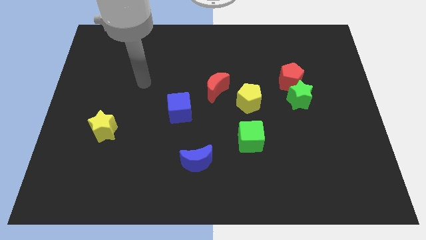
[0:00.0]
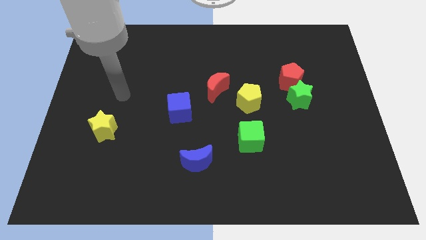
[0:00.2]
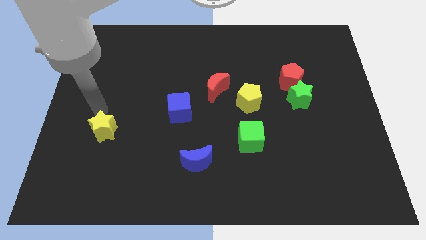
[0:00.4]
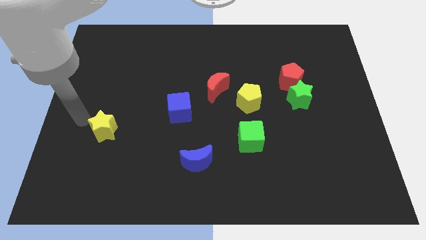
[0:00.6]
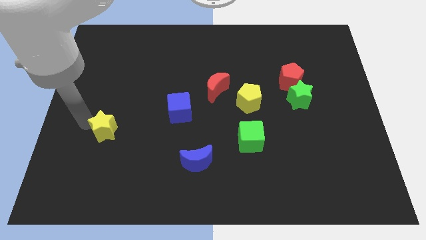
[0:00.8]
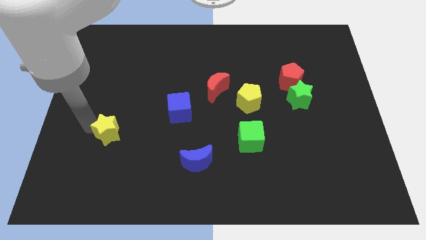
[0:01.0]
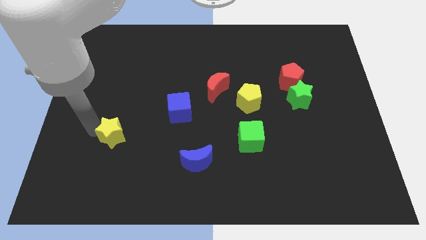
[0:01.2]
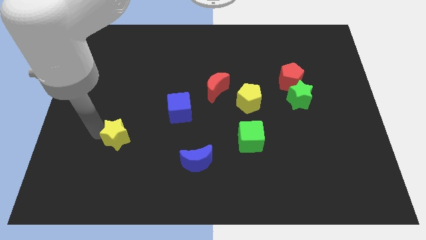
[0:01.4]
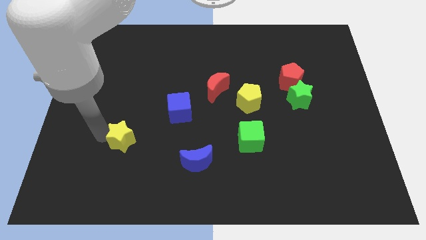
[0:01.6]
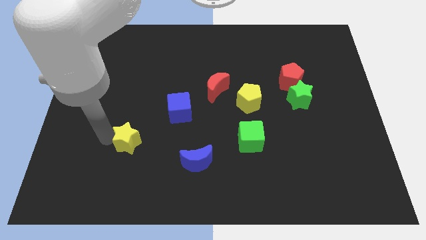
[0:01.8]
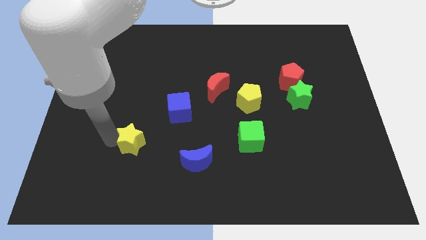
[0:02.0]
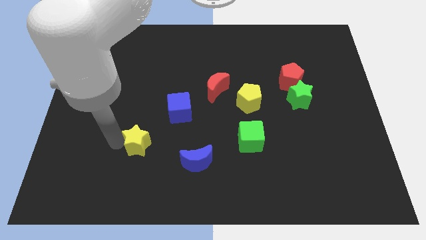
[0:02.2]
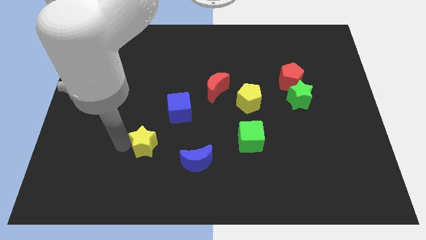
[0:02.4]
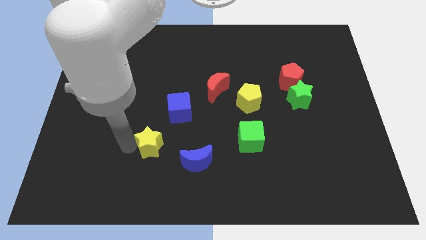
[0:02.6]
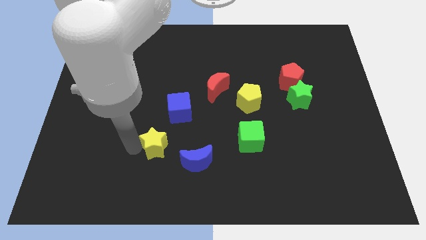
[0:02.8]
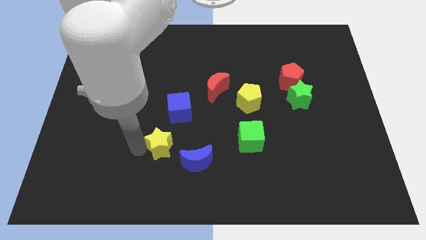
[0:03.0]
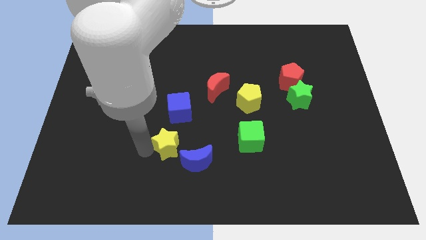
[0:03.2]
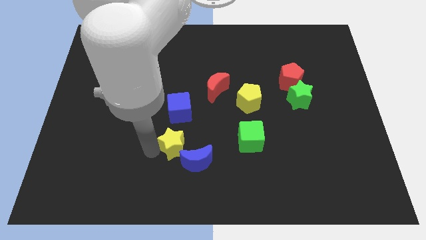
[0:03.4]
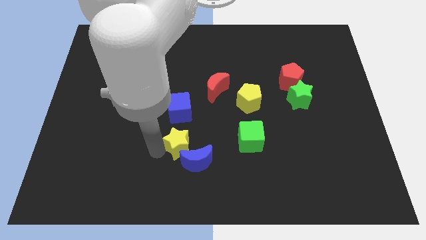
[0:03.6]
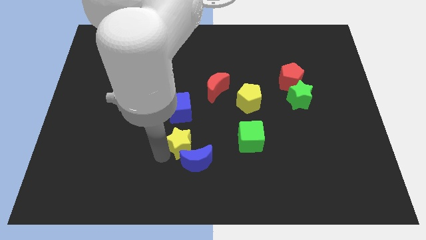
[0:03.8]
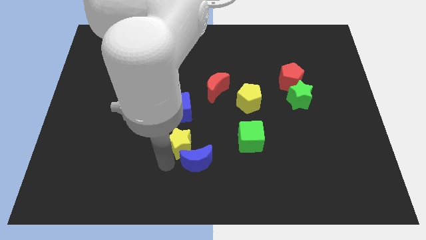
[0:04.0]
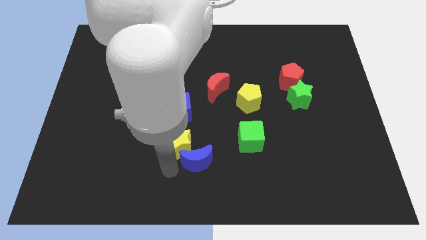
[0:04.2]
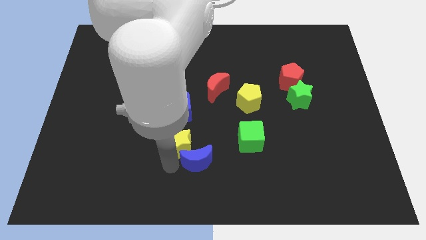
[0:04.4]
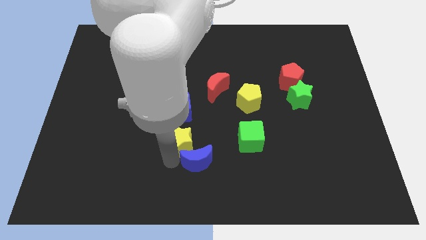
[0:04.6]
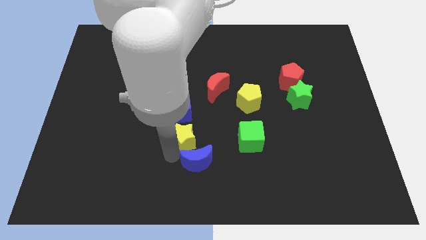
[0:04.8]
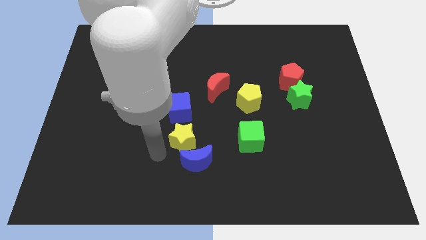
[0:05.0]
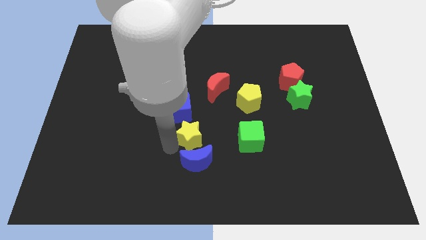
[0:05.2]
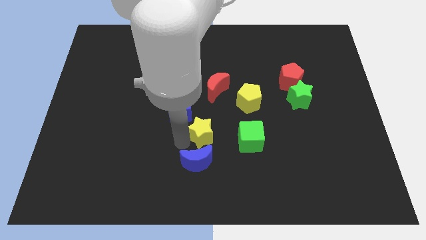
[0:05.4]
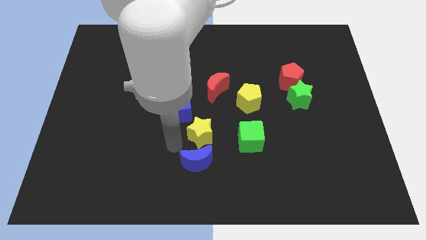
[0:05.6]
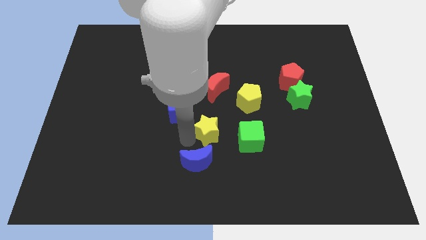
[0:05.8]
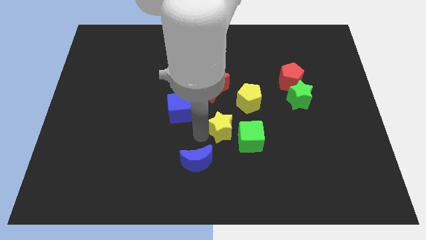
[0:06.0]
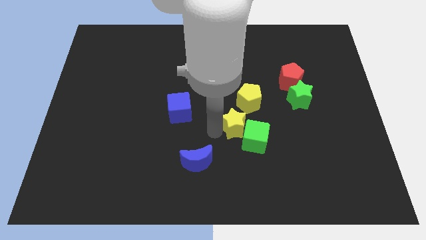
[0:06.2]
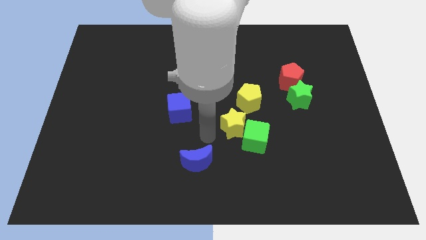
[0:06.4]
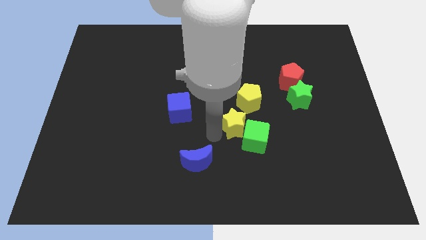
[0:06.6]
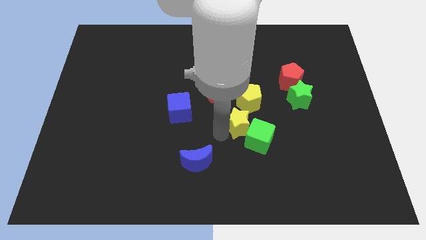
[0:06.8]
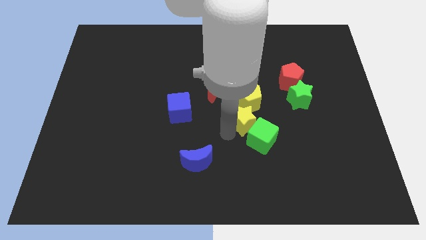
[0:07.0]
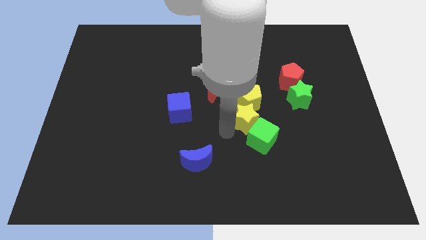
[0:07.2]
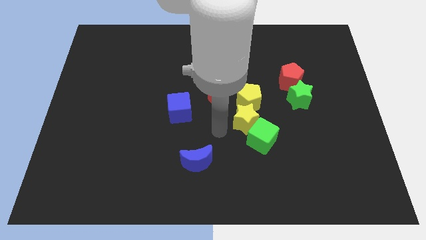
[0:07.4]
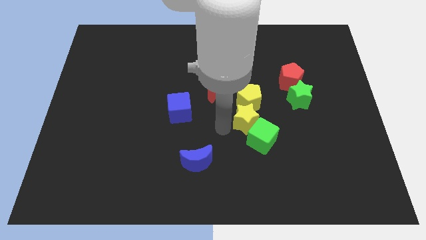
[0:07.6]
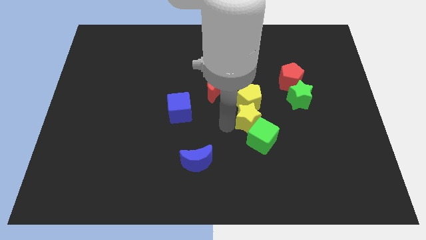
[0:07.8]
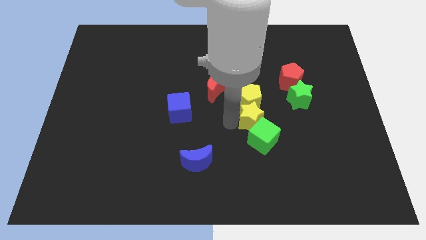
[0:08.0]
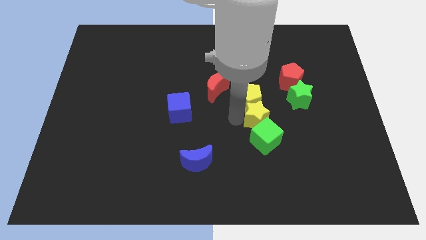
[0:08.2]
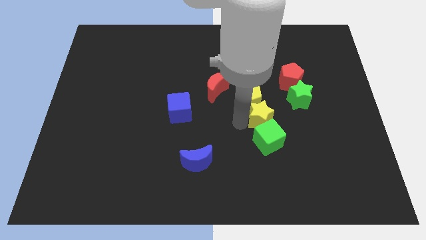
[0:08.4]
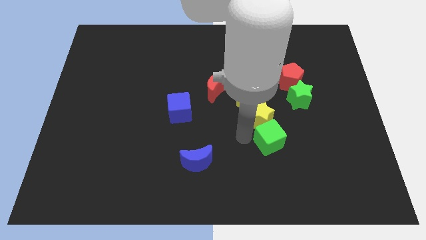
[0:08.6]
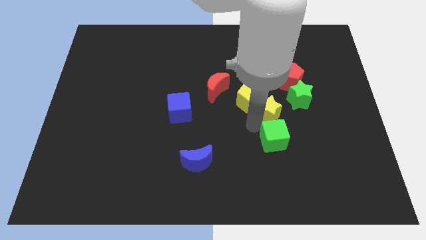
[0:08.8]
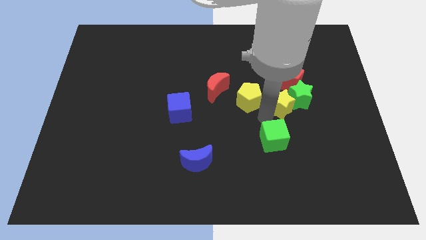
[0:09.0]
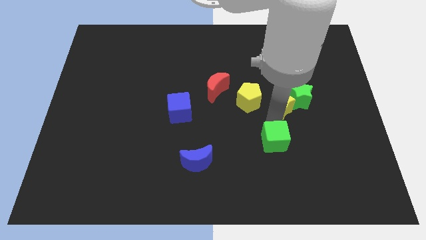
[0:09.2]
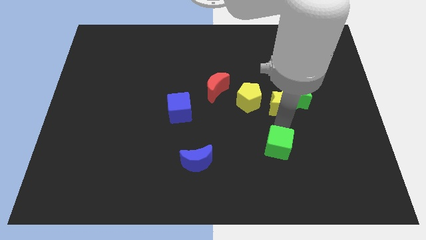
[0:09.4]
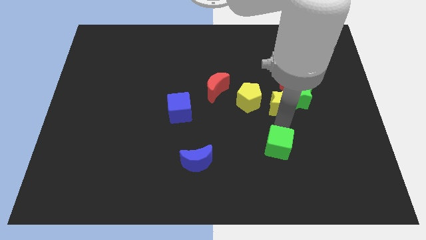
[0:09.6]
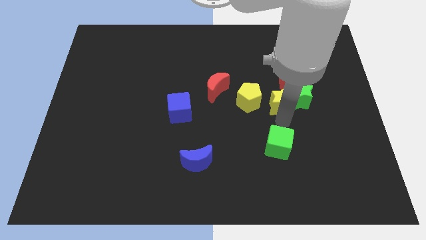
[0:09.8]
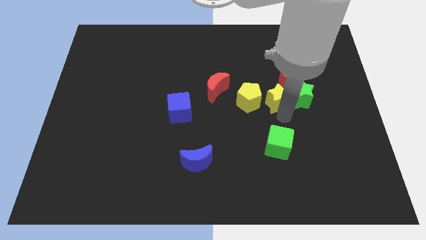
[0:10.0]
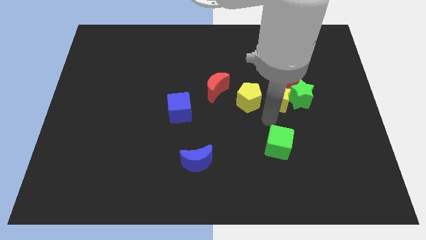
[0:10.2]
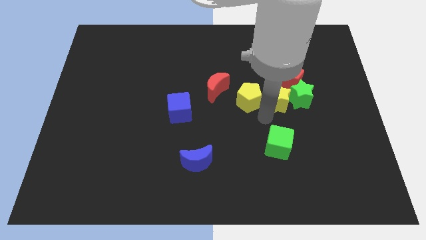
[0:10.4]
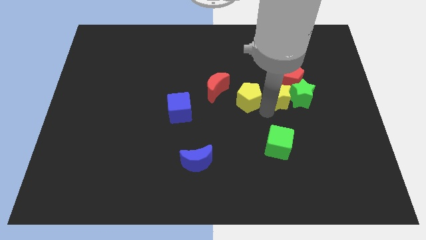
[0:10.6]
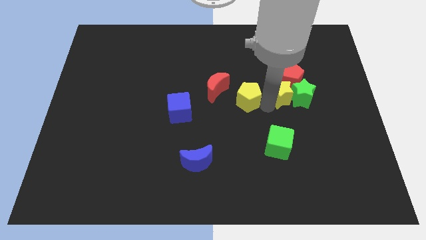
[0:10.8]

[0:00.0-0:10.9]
push the yellow star next to the red pentagon

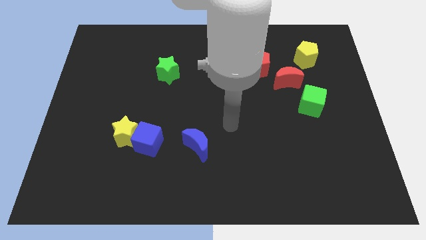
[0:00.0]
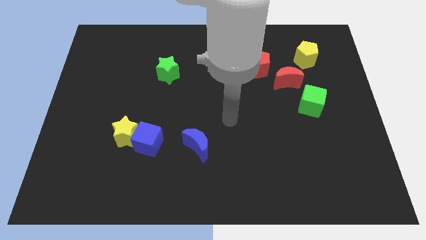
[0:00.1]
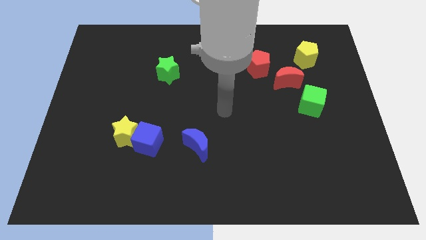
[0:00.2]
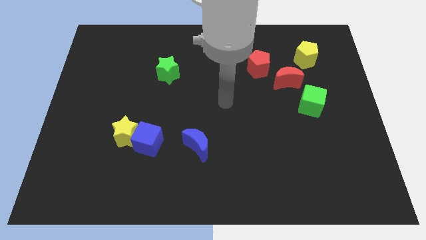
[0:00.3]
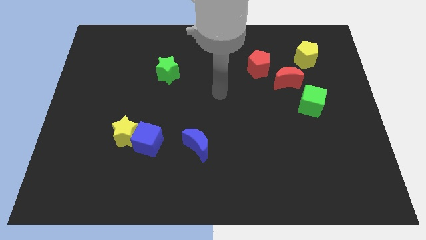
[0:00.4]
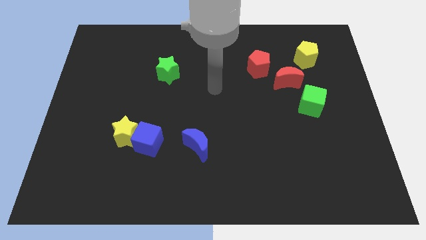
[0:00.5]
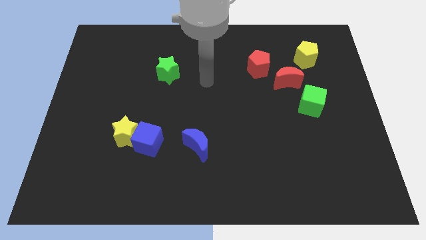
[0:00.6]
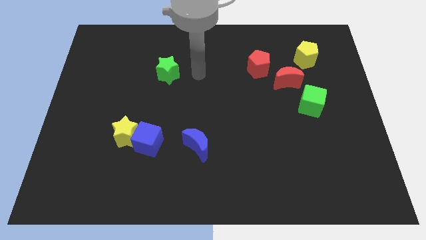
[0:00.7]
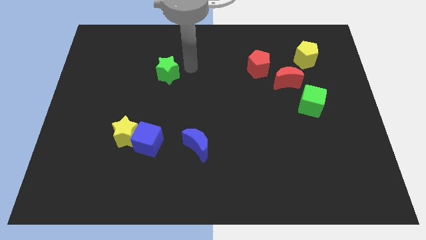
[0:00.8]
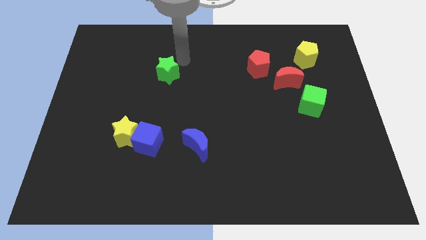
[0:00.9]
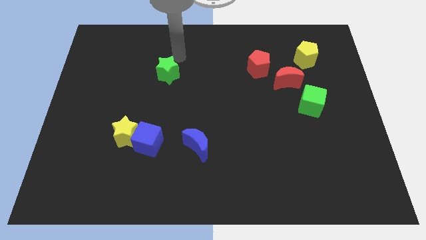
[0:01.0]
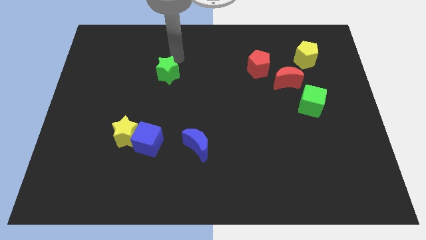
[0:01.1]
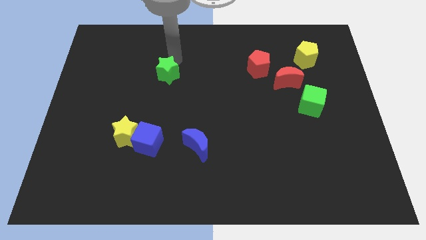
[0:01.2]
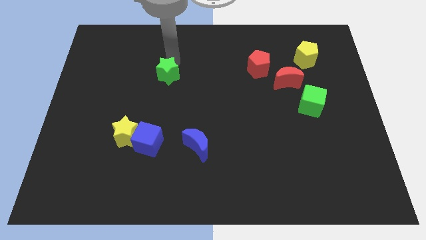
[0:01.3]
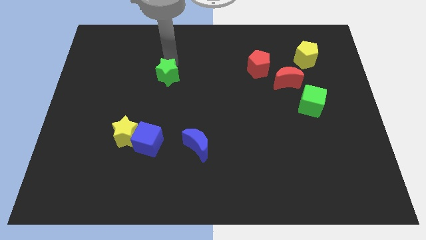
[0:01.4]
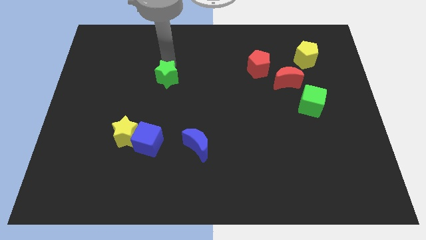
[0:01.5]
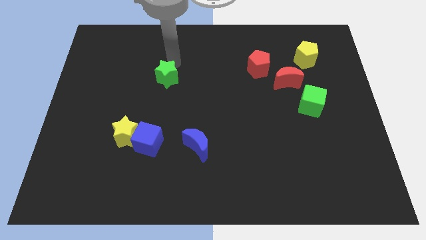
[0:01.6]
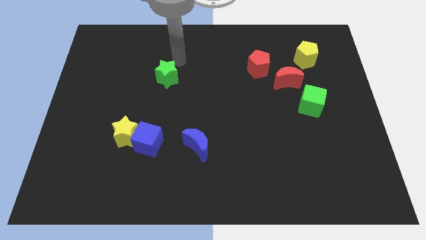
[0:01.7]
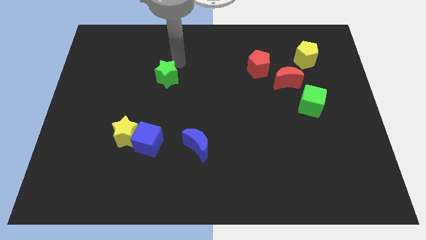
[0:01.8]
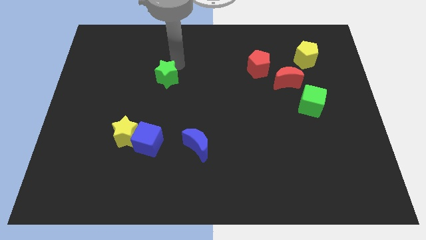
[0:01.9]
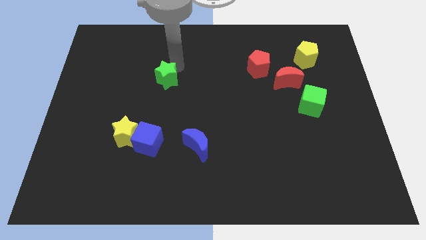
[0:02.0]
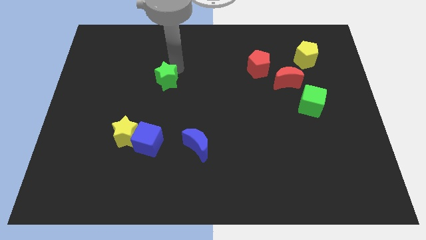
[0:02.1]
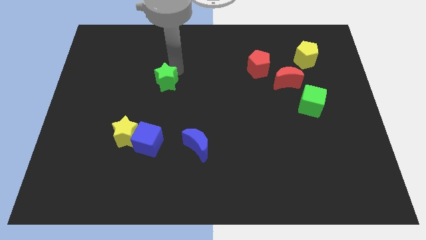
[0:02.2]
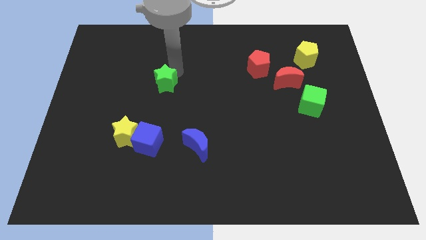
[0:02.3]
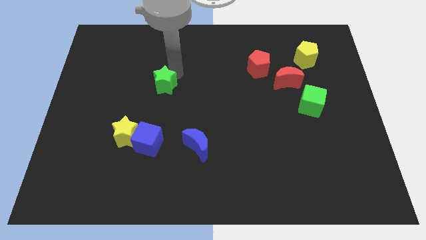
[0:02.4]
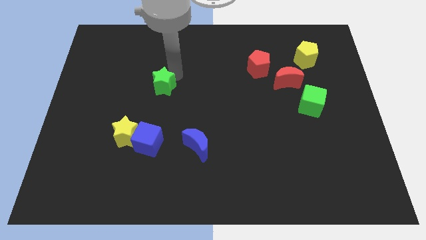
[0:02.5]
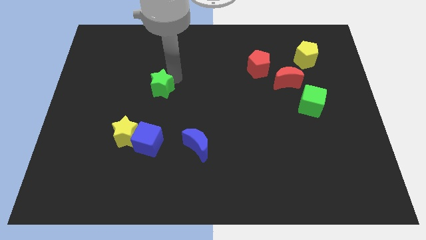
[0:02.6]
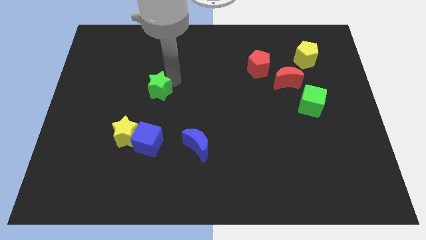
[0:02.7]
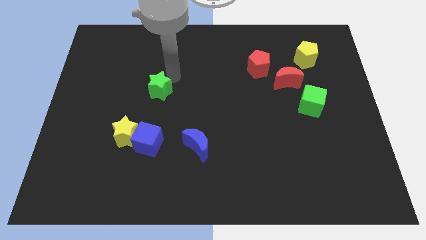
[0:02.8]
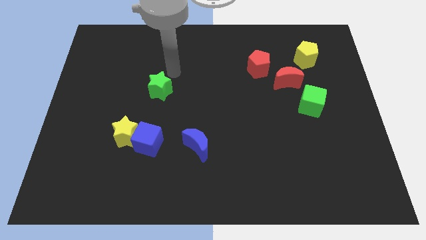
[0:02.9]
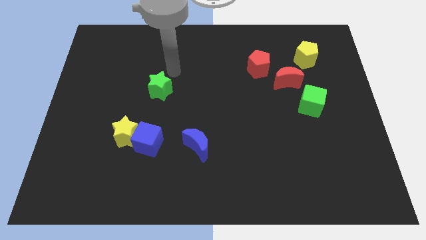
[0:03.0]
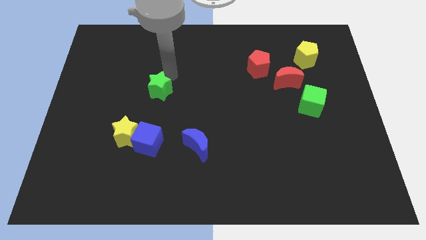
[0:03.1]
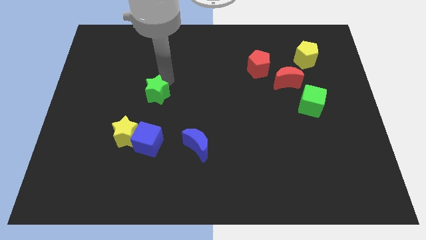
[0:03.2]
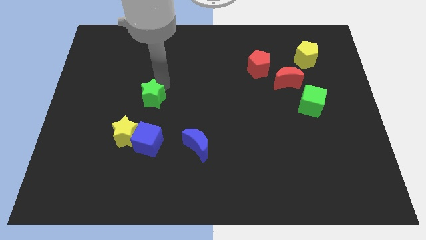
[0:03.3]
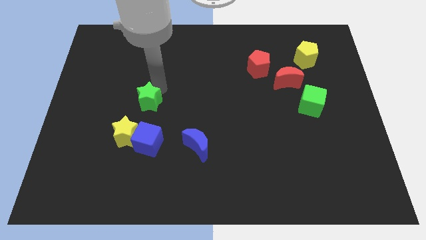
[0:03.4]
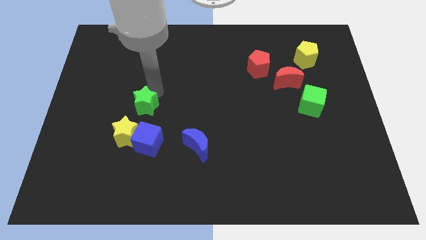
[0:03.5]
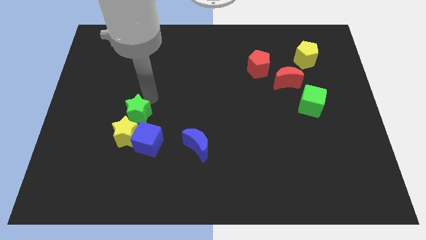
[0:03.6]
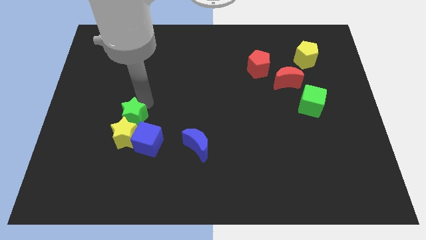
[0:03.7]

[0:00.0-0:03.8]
move the green star close to the yellow star
